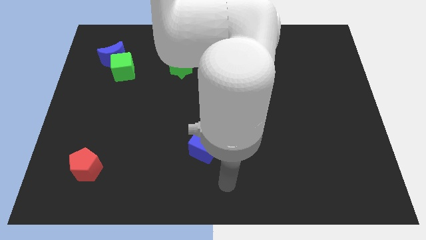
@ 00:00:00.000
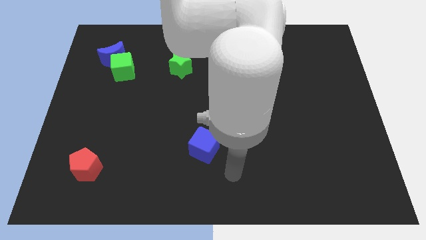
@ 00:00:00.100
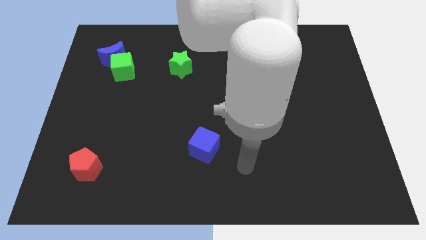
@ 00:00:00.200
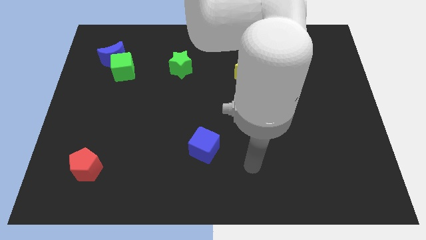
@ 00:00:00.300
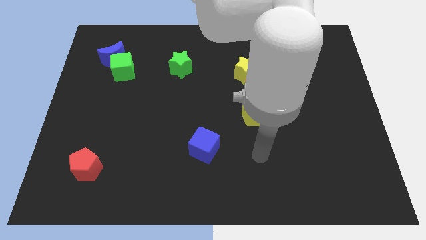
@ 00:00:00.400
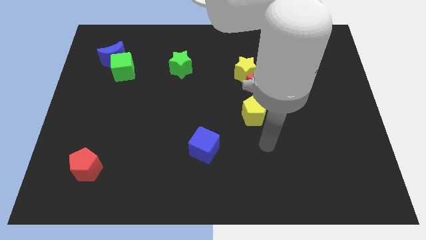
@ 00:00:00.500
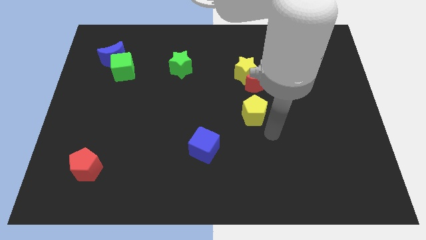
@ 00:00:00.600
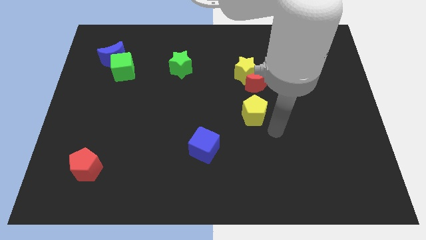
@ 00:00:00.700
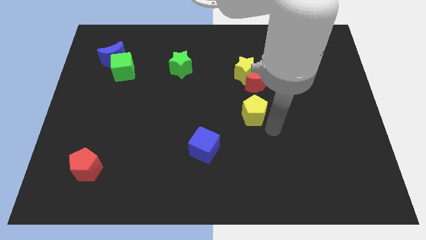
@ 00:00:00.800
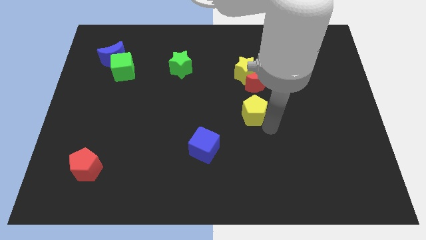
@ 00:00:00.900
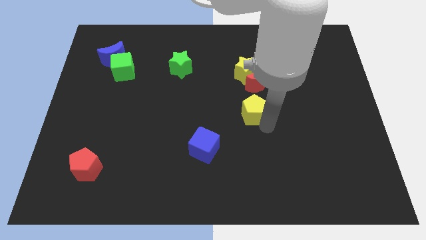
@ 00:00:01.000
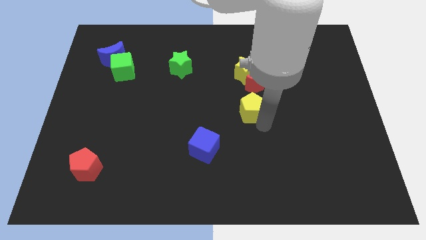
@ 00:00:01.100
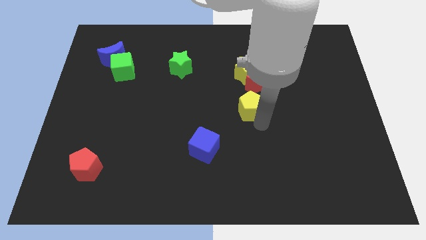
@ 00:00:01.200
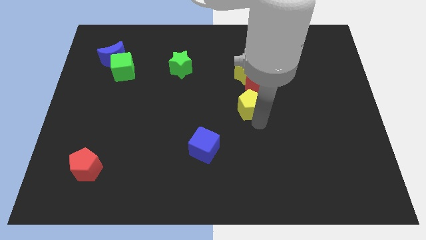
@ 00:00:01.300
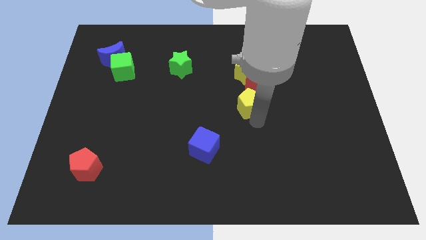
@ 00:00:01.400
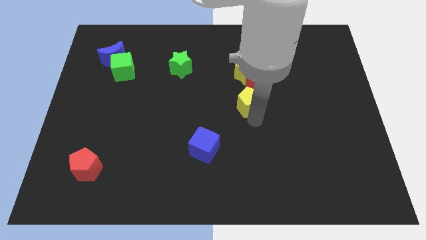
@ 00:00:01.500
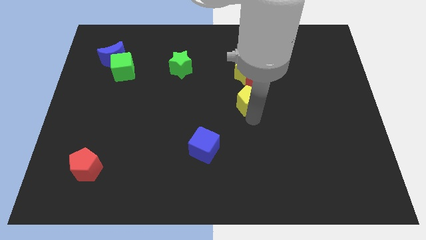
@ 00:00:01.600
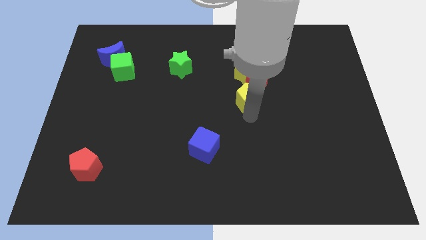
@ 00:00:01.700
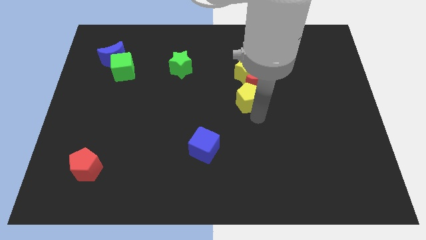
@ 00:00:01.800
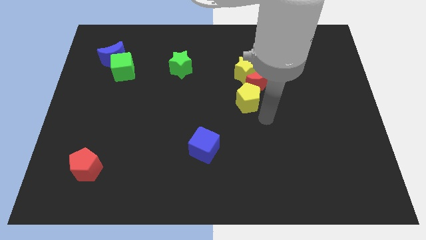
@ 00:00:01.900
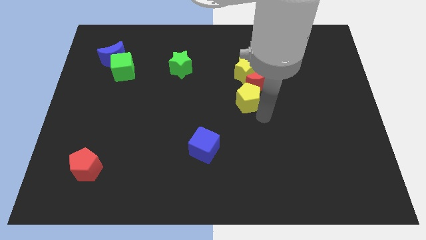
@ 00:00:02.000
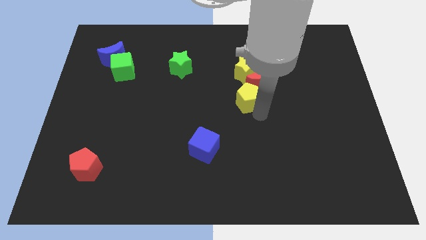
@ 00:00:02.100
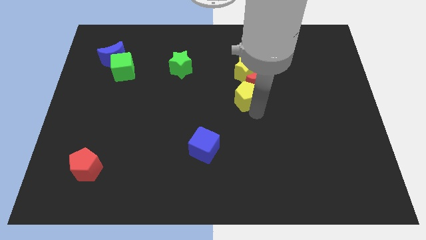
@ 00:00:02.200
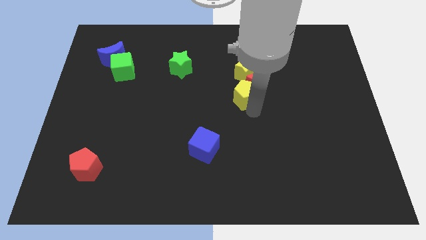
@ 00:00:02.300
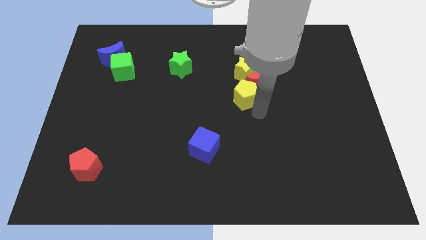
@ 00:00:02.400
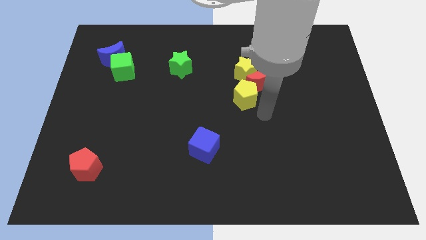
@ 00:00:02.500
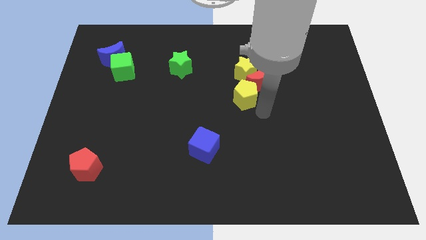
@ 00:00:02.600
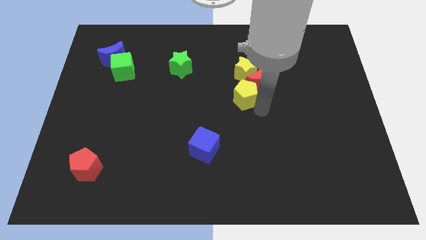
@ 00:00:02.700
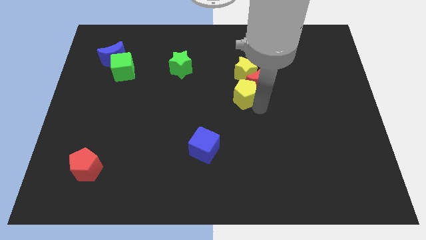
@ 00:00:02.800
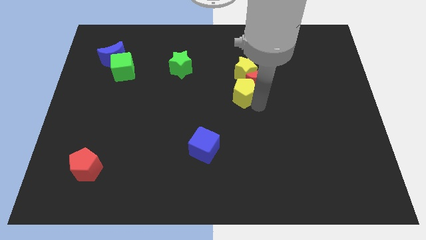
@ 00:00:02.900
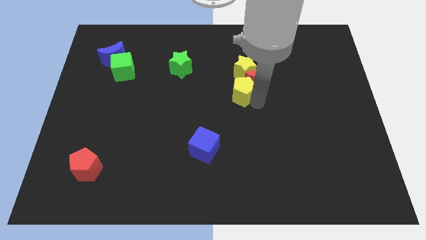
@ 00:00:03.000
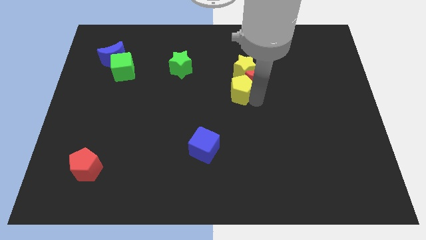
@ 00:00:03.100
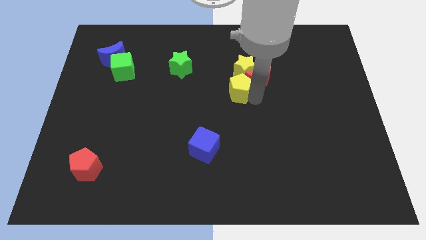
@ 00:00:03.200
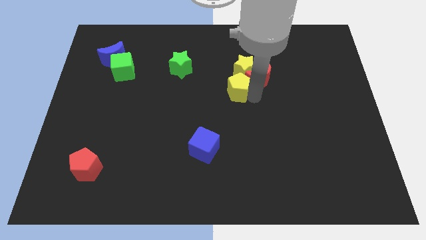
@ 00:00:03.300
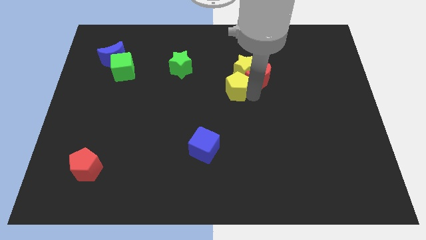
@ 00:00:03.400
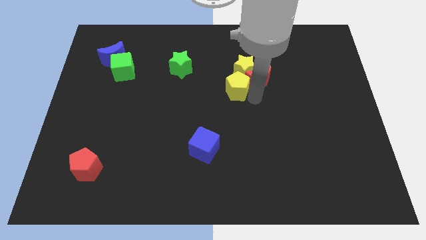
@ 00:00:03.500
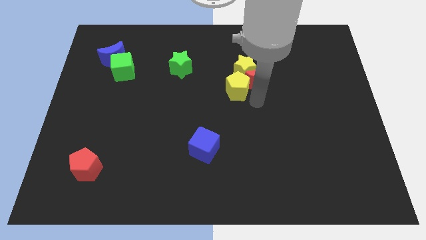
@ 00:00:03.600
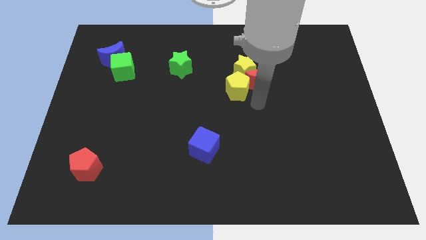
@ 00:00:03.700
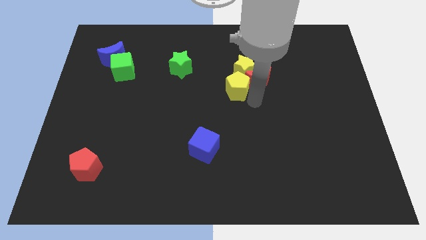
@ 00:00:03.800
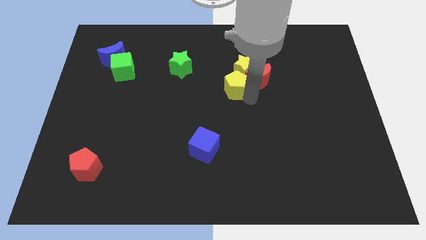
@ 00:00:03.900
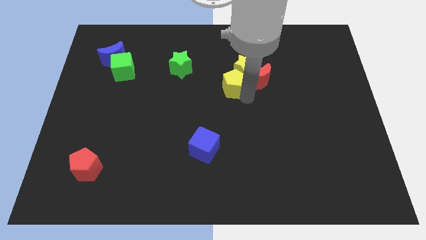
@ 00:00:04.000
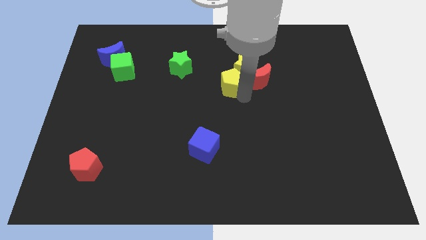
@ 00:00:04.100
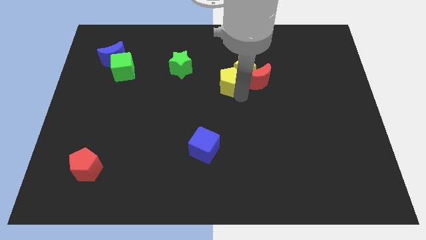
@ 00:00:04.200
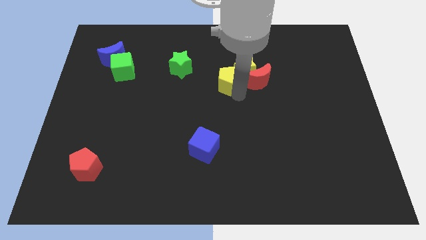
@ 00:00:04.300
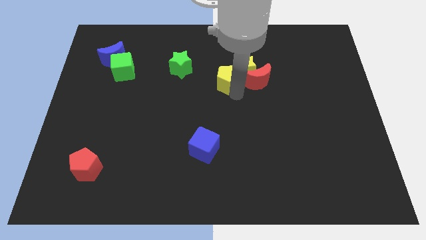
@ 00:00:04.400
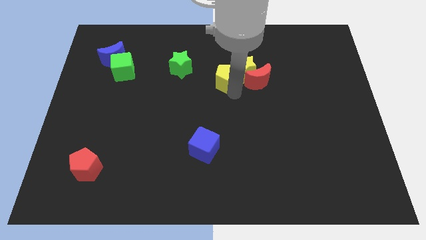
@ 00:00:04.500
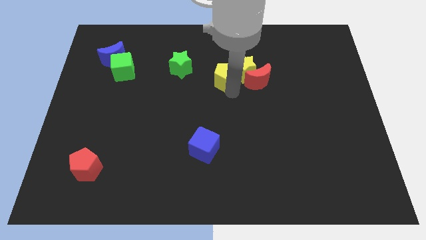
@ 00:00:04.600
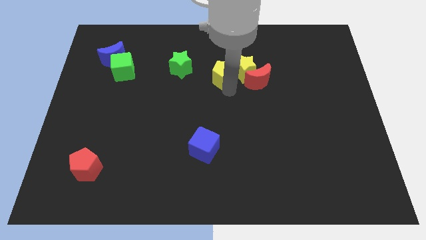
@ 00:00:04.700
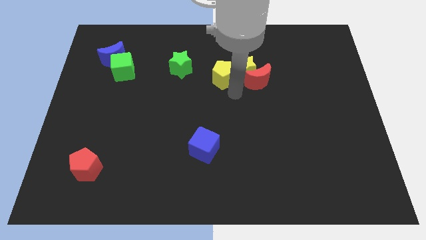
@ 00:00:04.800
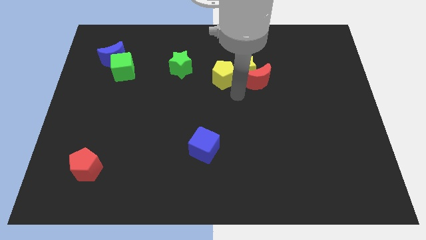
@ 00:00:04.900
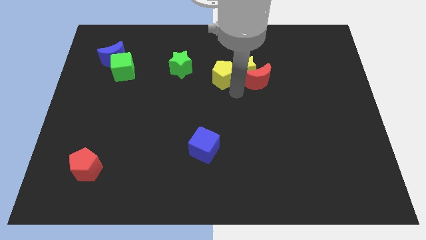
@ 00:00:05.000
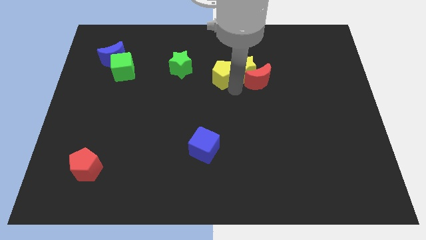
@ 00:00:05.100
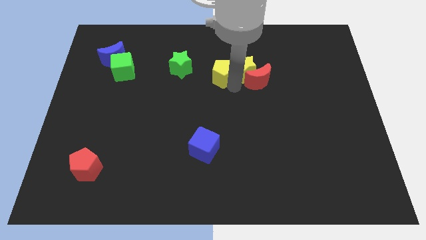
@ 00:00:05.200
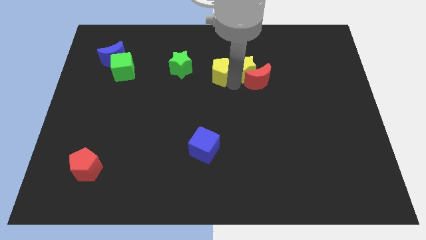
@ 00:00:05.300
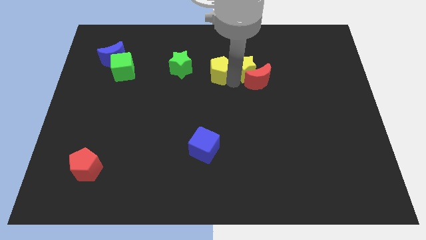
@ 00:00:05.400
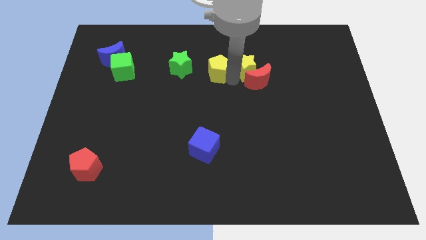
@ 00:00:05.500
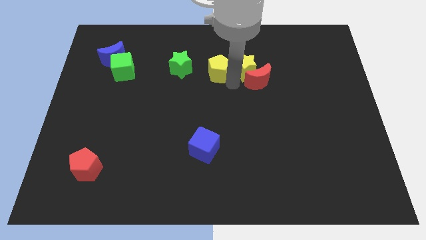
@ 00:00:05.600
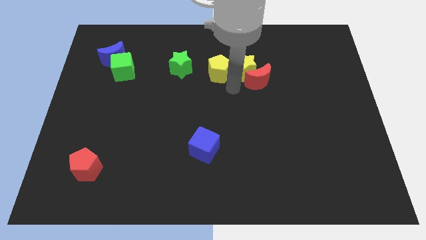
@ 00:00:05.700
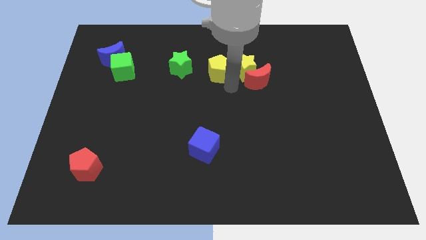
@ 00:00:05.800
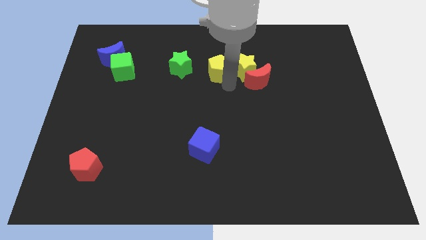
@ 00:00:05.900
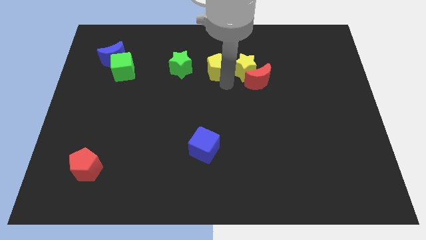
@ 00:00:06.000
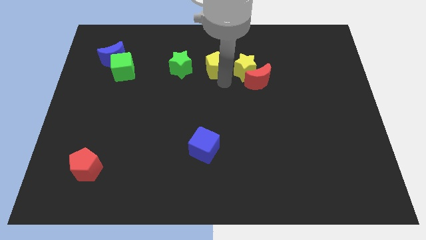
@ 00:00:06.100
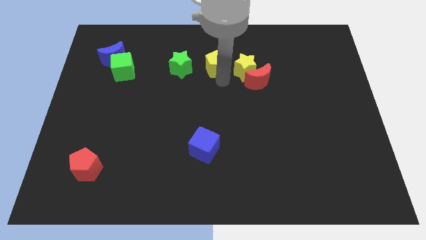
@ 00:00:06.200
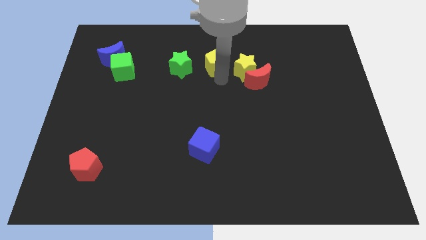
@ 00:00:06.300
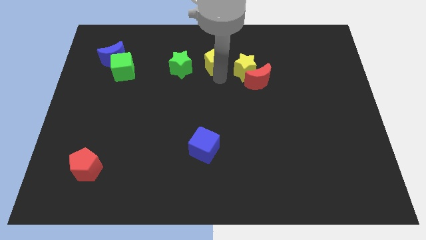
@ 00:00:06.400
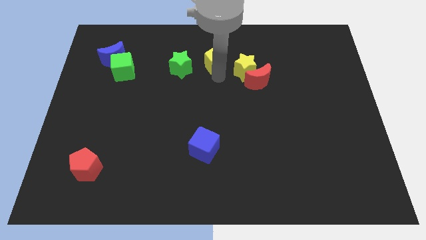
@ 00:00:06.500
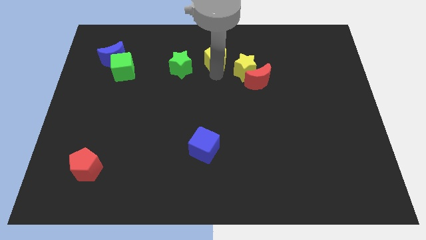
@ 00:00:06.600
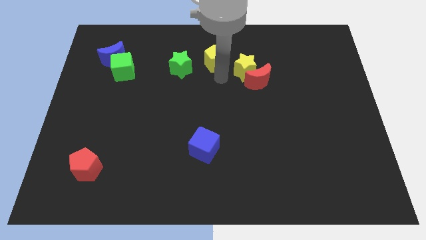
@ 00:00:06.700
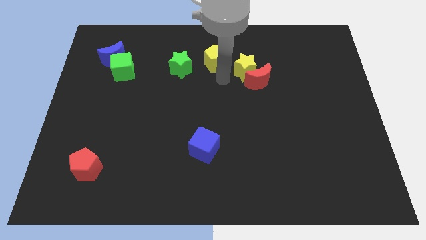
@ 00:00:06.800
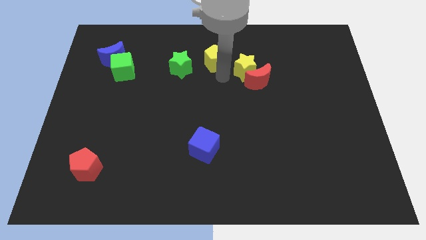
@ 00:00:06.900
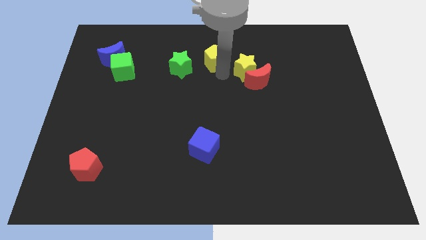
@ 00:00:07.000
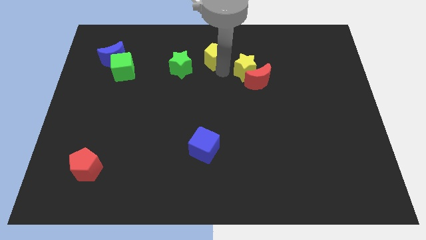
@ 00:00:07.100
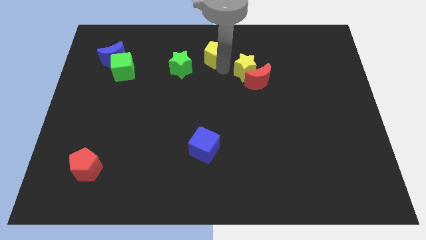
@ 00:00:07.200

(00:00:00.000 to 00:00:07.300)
slide the yellow pentagon to the towards your base
